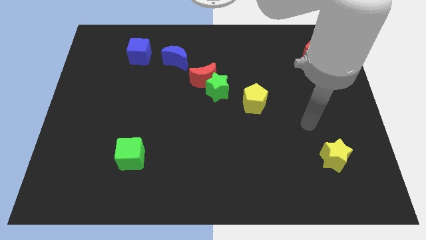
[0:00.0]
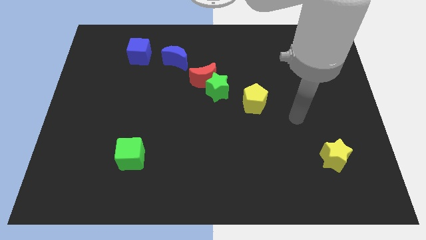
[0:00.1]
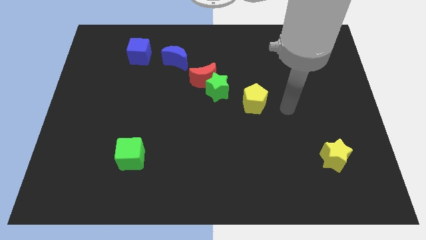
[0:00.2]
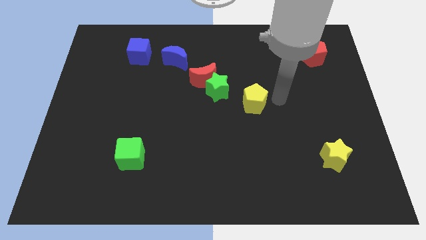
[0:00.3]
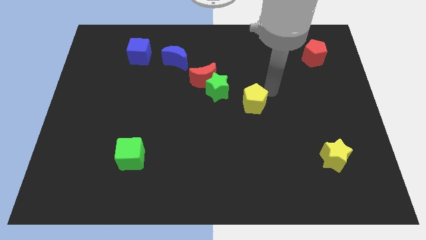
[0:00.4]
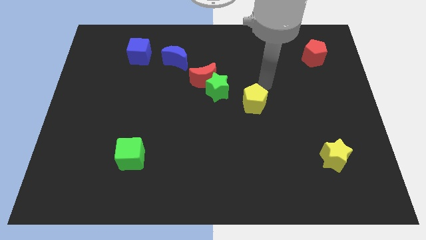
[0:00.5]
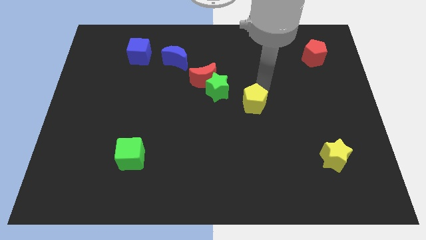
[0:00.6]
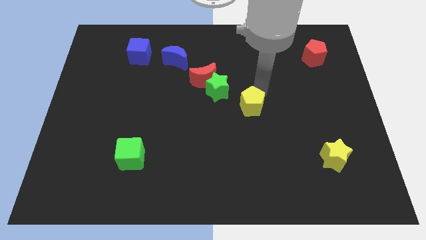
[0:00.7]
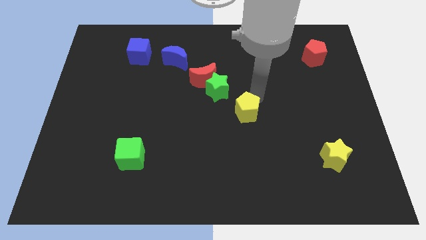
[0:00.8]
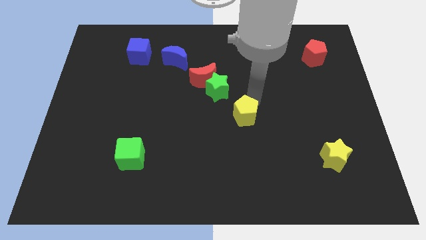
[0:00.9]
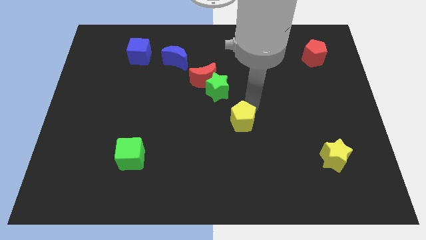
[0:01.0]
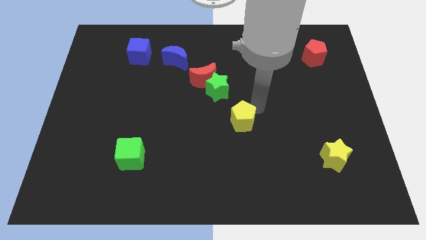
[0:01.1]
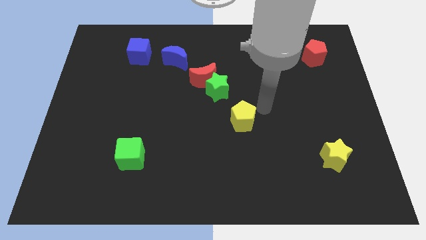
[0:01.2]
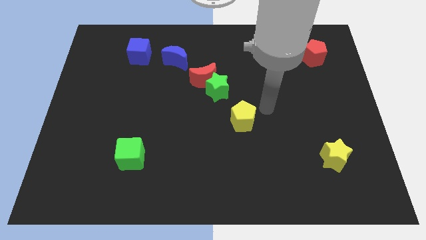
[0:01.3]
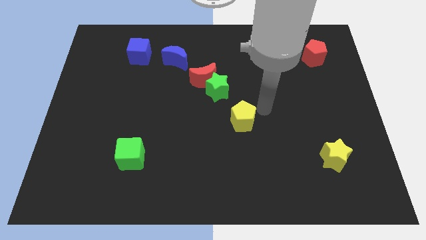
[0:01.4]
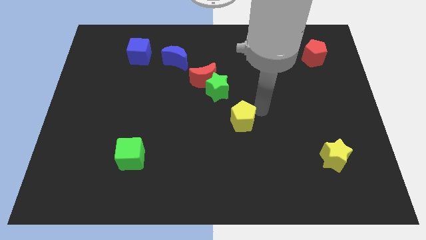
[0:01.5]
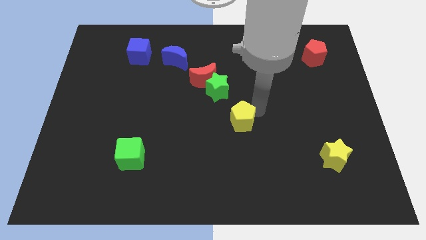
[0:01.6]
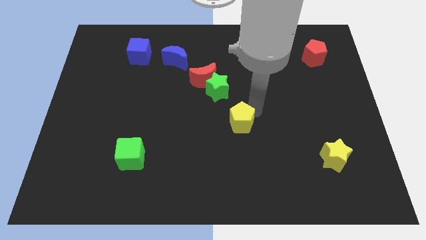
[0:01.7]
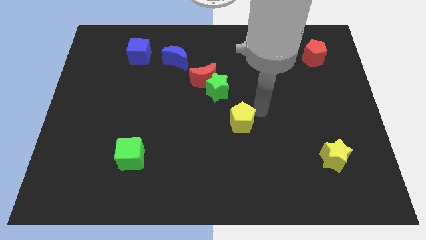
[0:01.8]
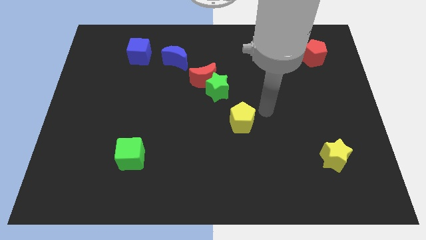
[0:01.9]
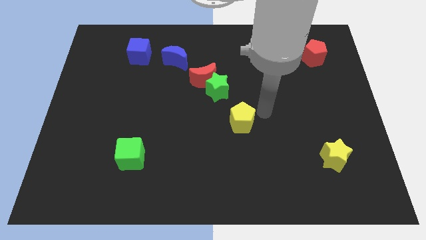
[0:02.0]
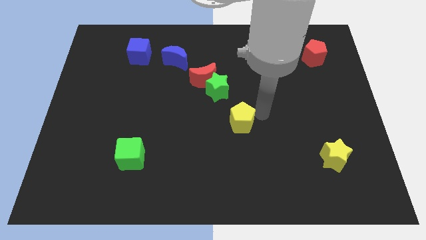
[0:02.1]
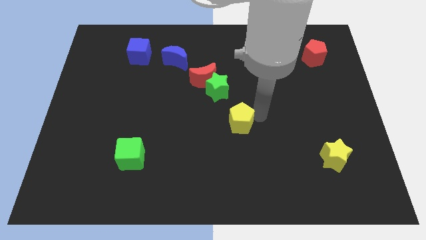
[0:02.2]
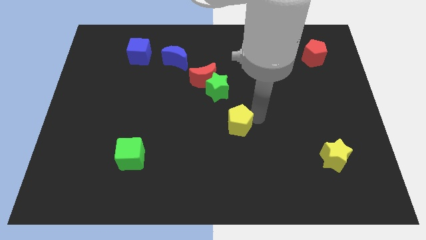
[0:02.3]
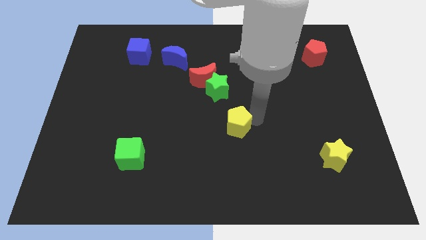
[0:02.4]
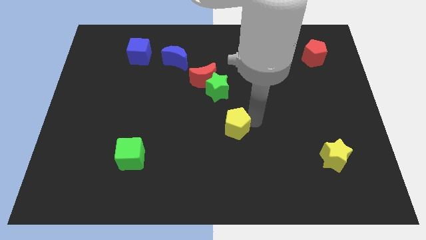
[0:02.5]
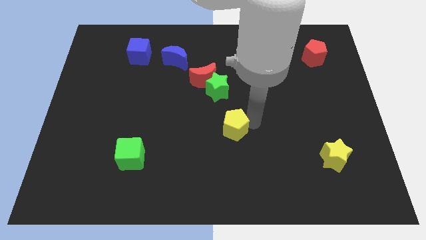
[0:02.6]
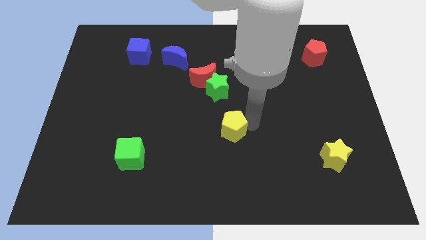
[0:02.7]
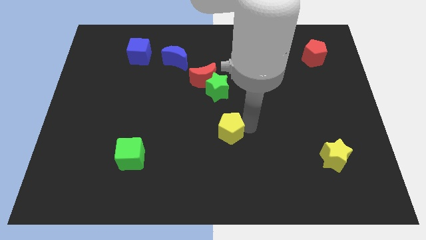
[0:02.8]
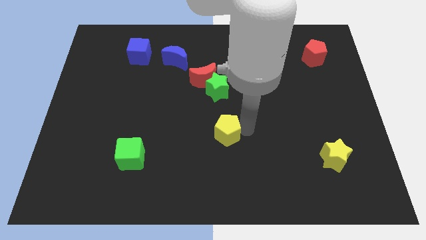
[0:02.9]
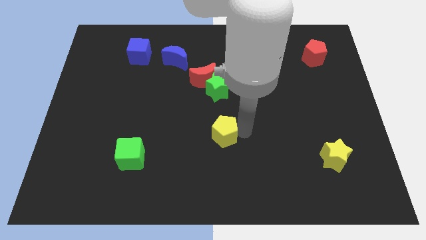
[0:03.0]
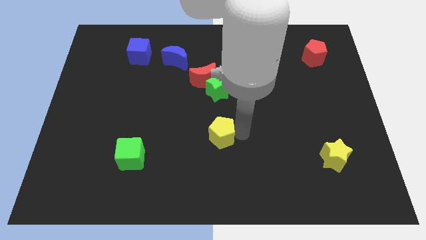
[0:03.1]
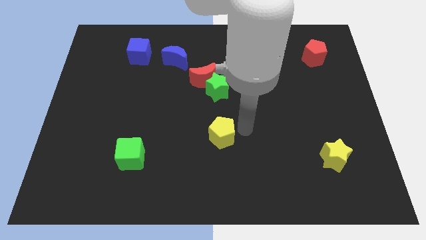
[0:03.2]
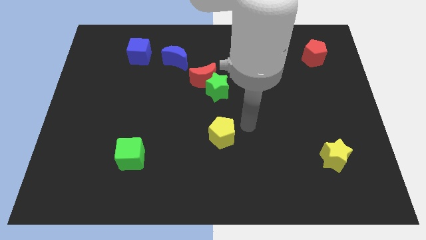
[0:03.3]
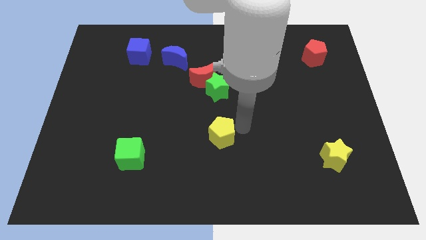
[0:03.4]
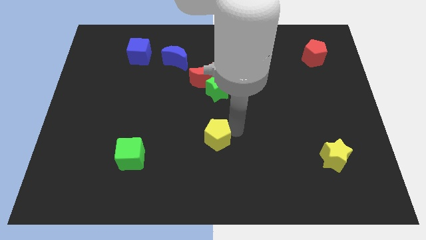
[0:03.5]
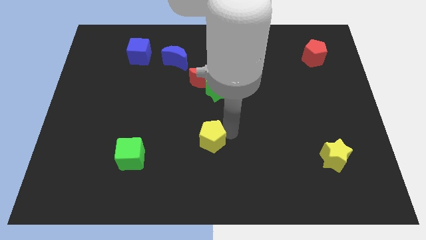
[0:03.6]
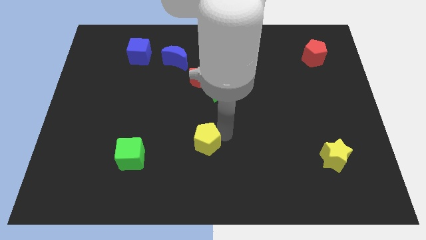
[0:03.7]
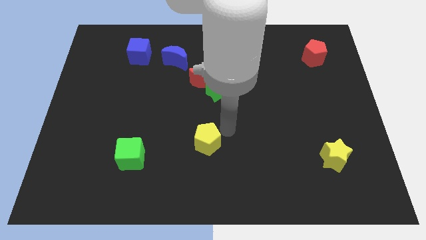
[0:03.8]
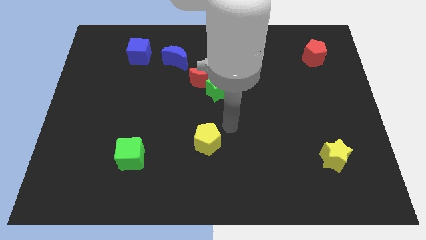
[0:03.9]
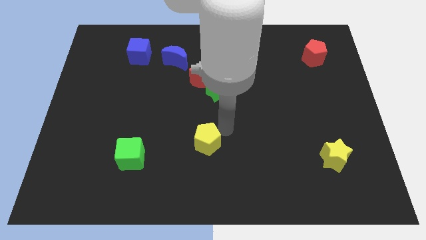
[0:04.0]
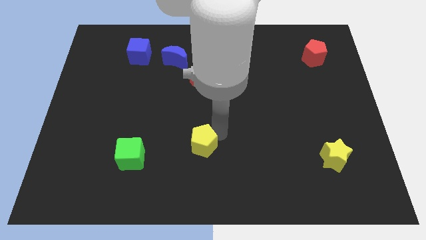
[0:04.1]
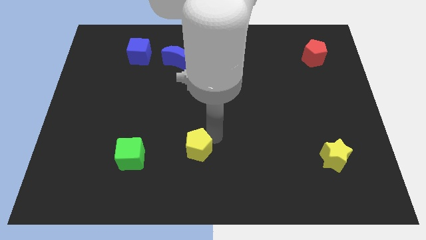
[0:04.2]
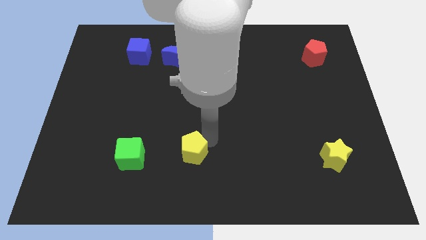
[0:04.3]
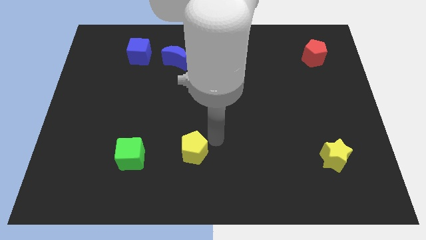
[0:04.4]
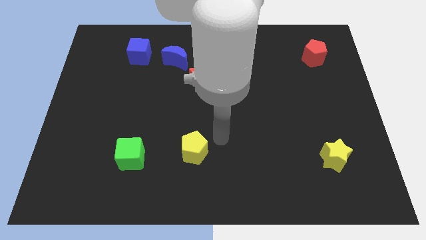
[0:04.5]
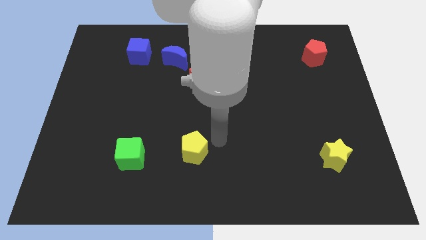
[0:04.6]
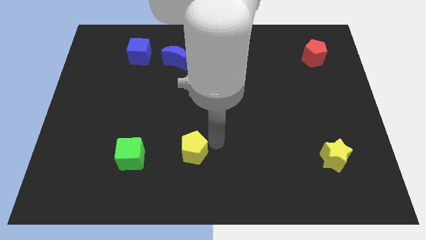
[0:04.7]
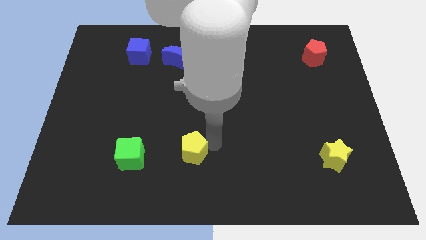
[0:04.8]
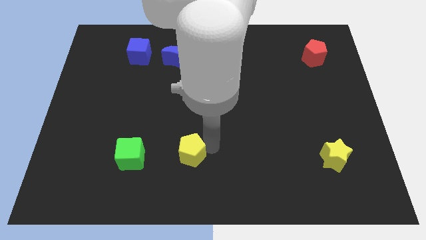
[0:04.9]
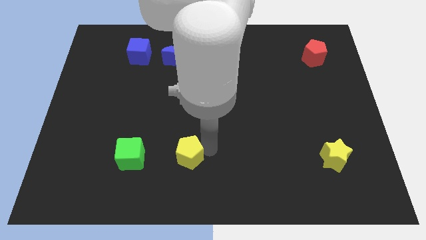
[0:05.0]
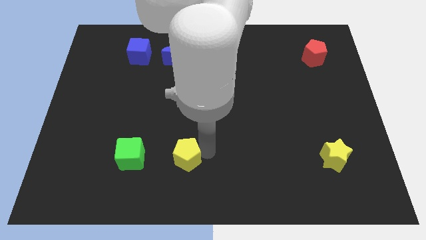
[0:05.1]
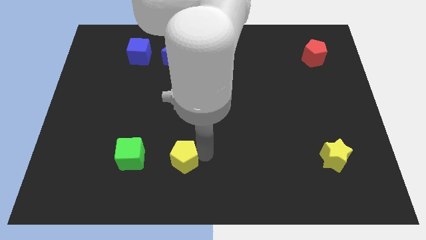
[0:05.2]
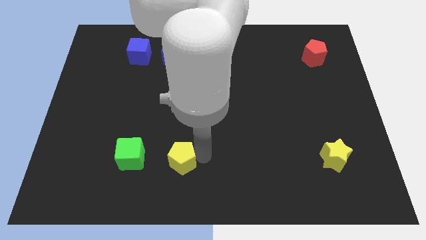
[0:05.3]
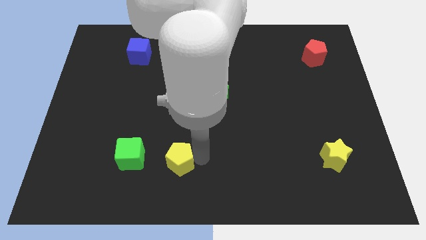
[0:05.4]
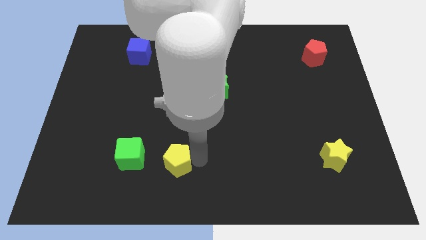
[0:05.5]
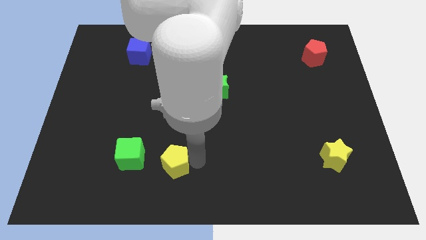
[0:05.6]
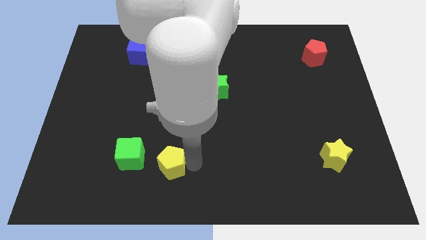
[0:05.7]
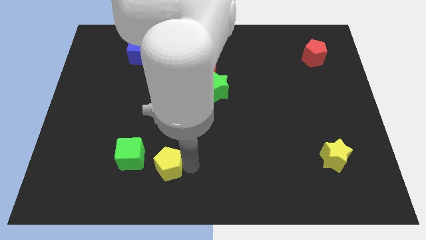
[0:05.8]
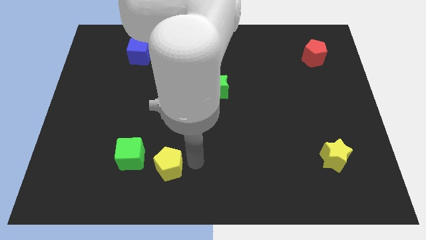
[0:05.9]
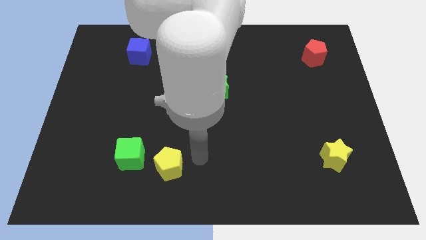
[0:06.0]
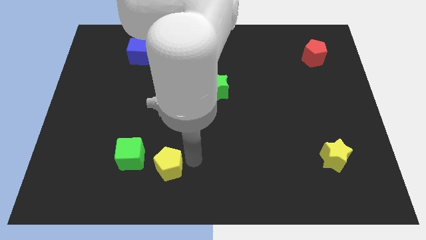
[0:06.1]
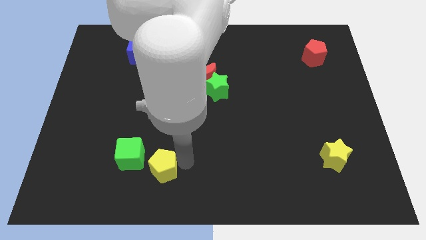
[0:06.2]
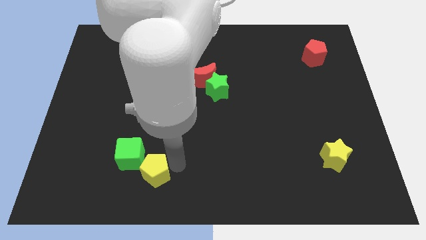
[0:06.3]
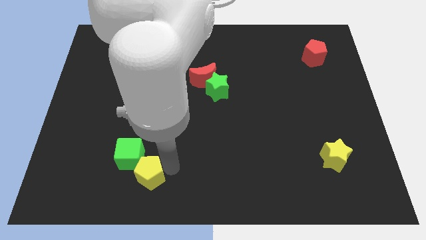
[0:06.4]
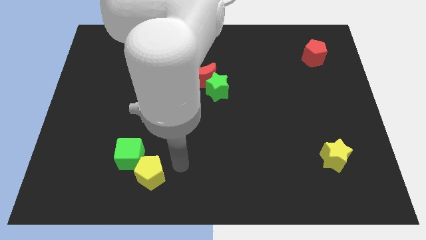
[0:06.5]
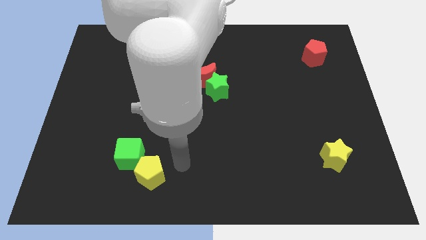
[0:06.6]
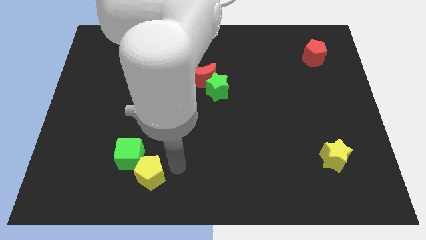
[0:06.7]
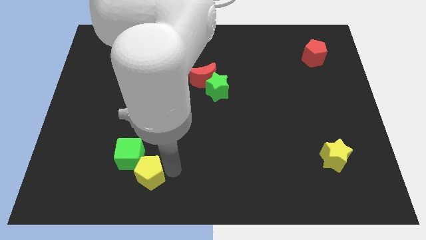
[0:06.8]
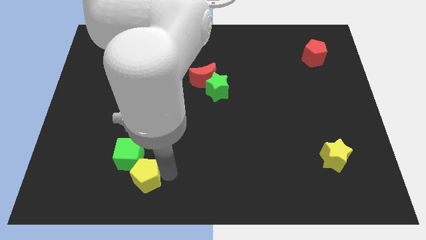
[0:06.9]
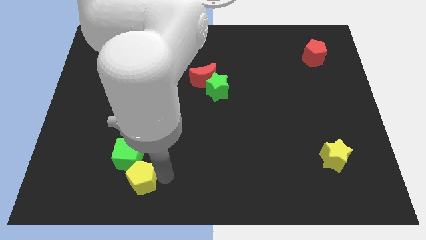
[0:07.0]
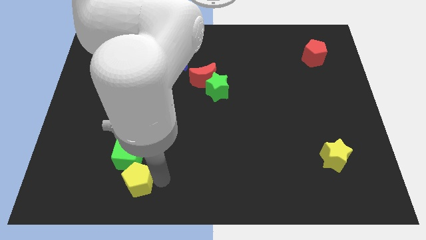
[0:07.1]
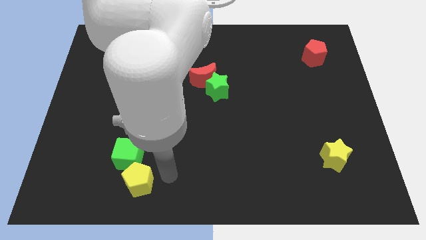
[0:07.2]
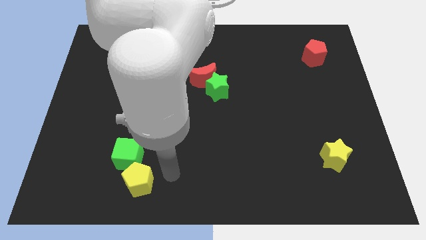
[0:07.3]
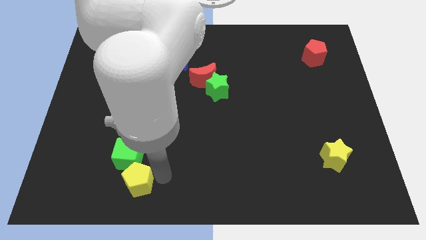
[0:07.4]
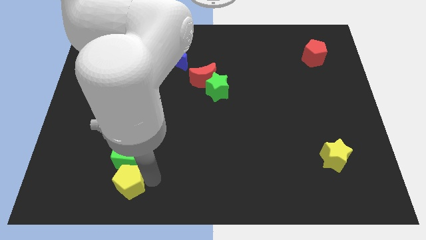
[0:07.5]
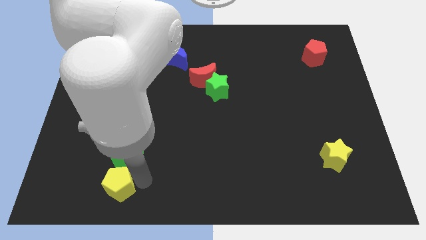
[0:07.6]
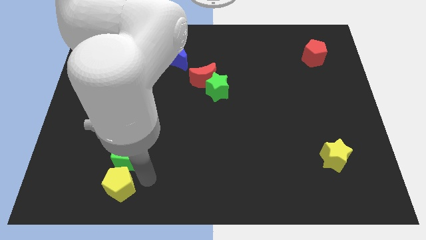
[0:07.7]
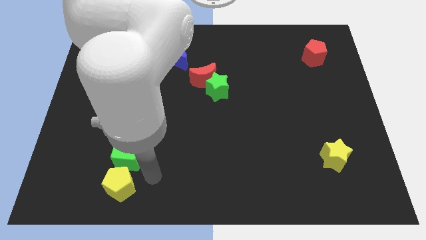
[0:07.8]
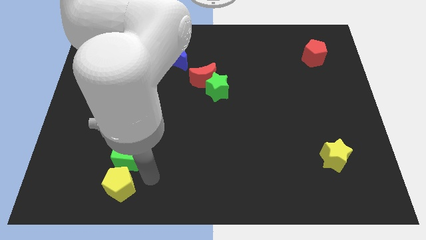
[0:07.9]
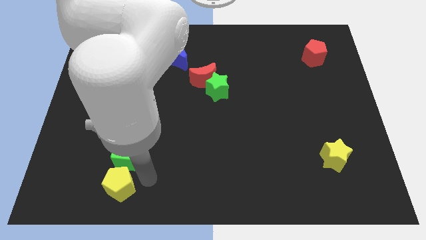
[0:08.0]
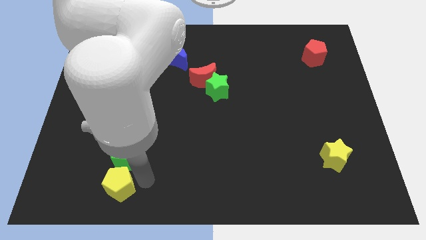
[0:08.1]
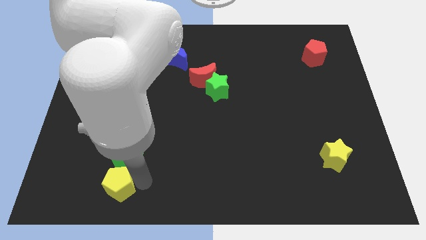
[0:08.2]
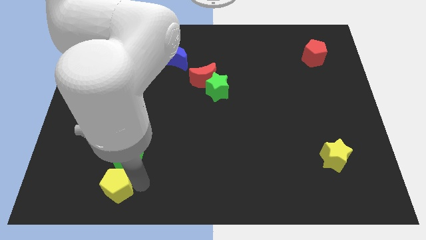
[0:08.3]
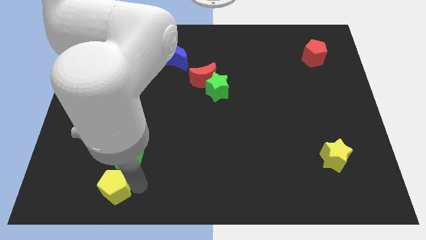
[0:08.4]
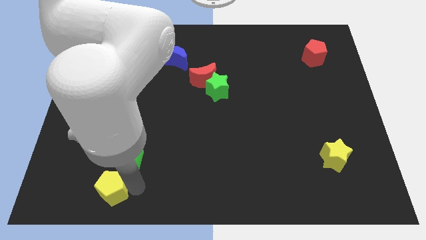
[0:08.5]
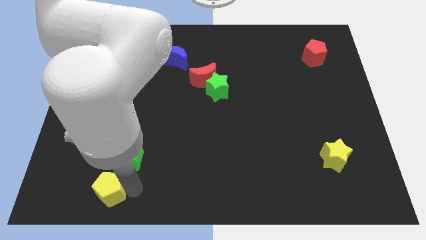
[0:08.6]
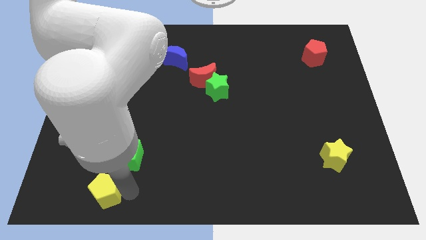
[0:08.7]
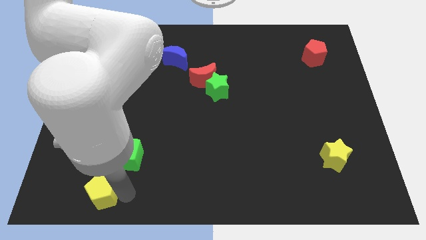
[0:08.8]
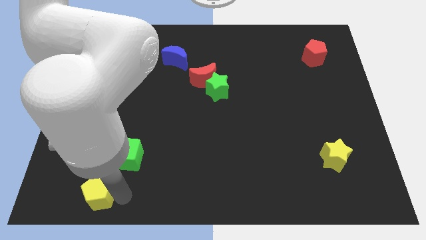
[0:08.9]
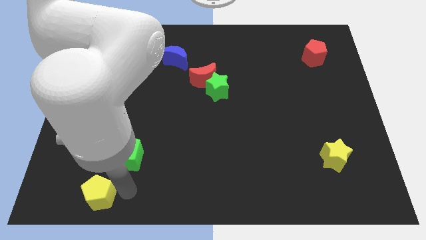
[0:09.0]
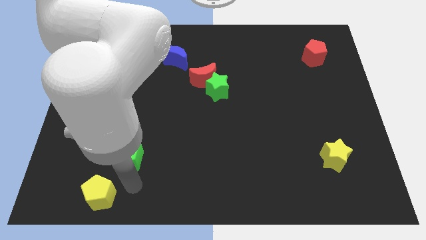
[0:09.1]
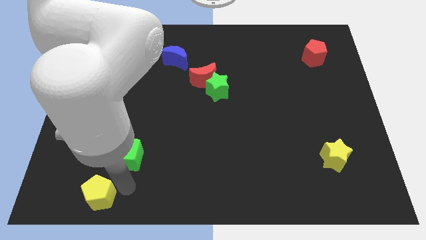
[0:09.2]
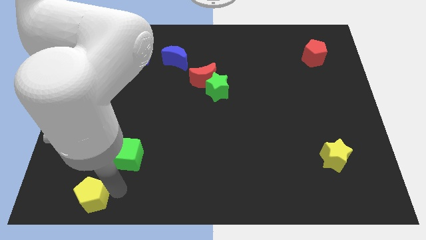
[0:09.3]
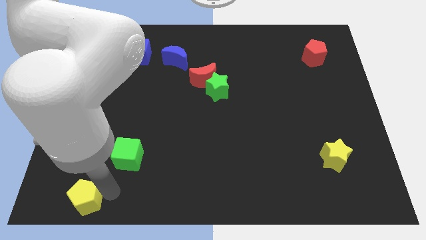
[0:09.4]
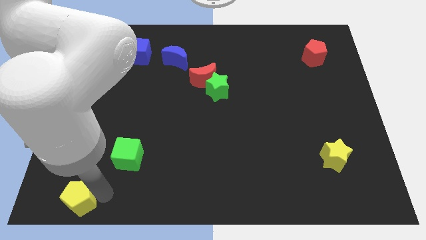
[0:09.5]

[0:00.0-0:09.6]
push the yellow pentagon to the bottom left of the board
